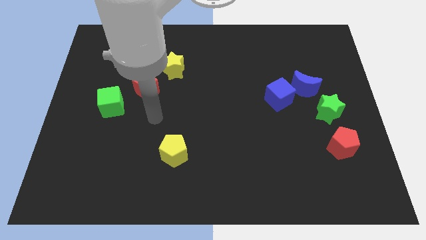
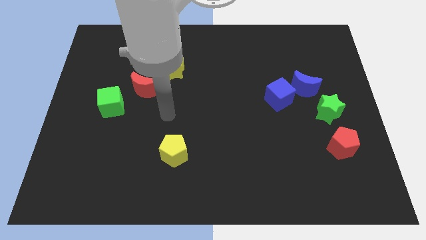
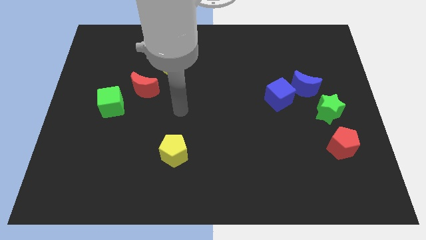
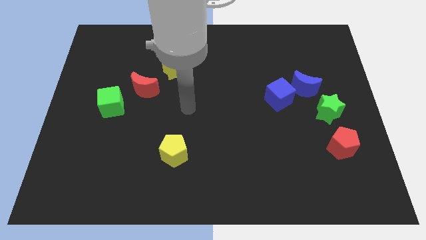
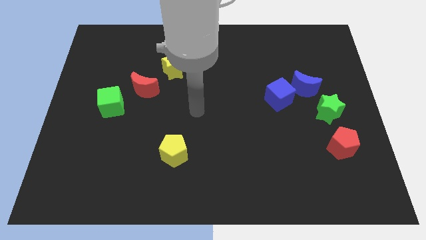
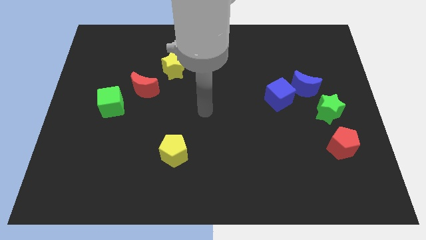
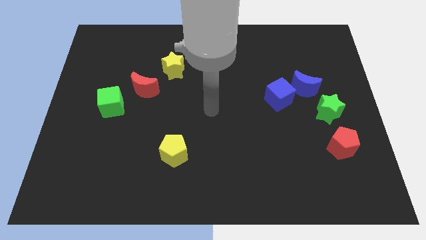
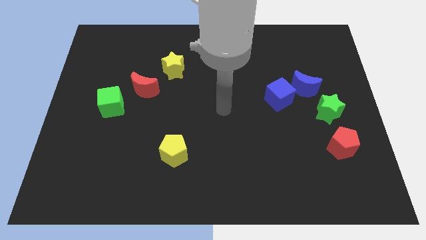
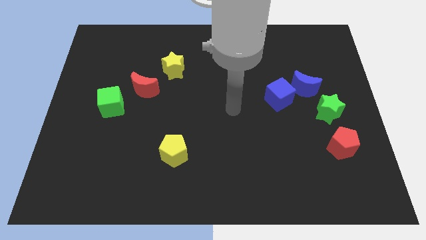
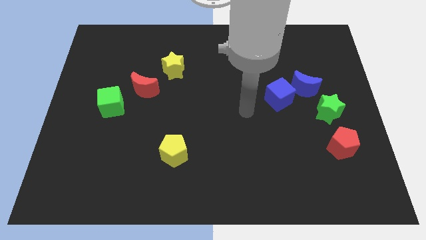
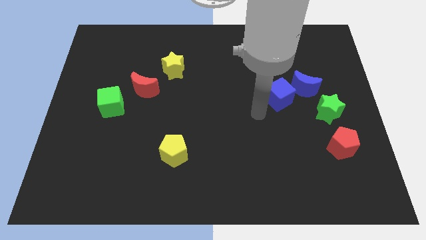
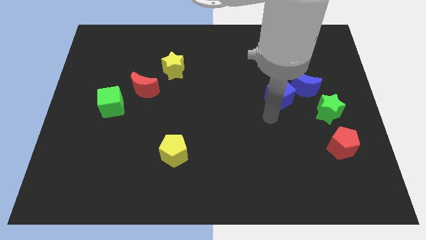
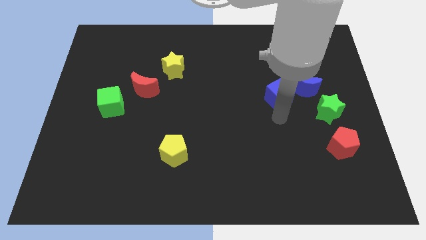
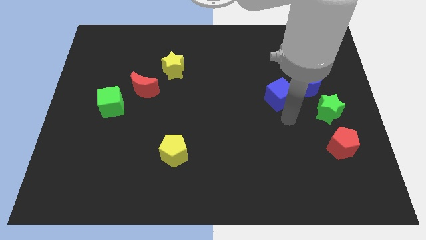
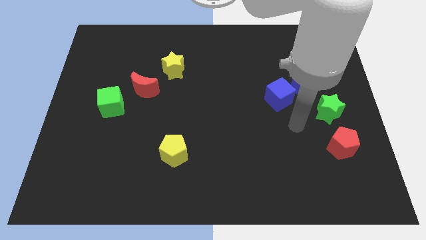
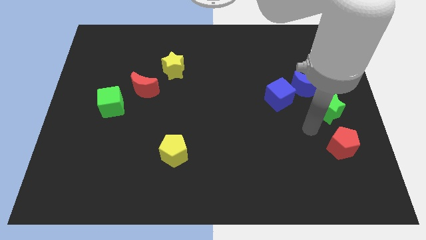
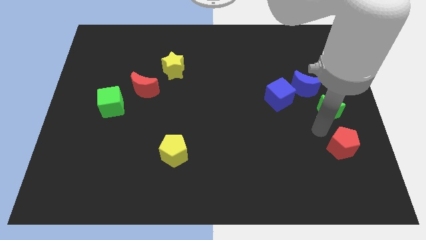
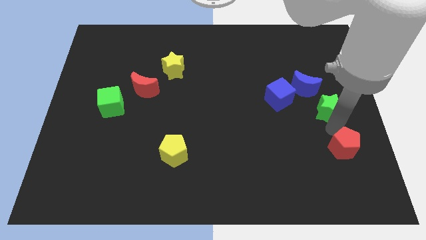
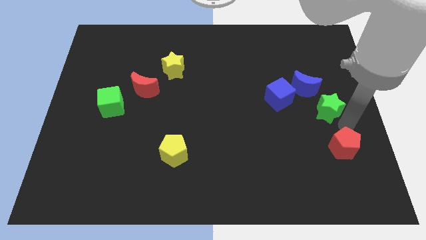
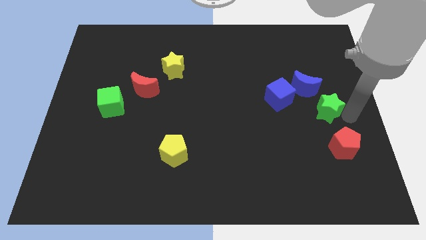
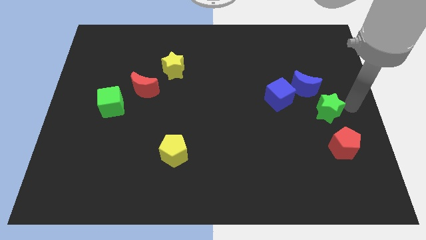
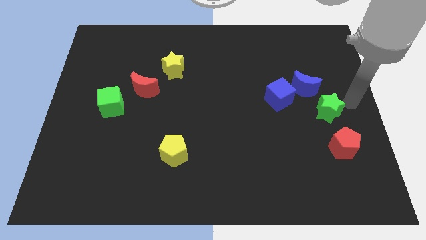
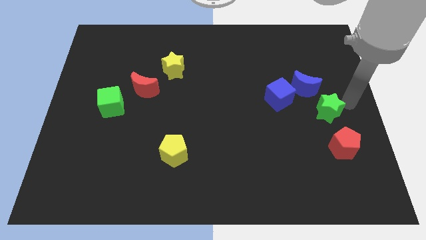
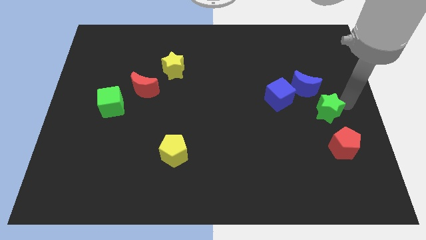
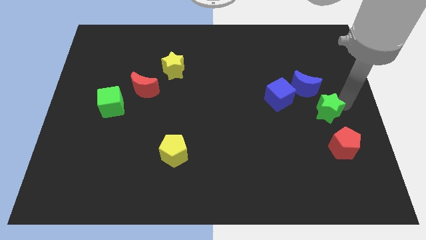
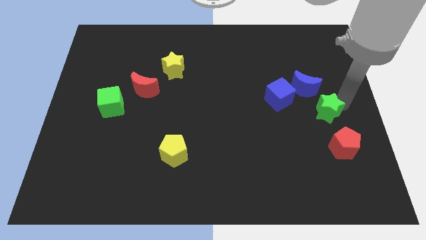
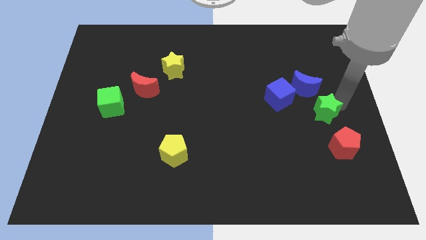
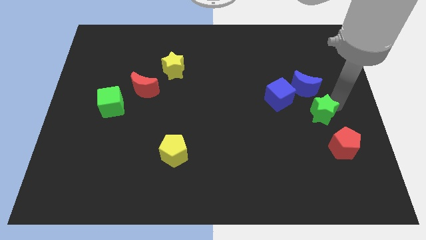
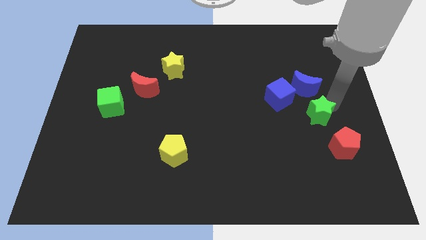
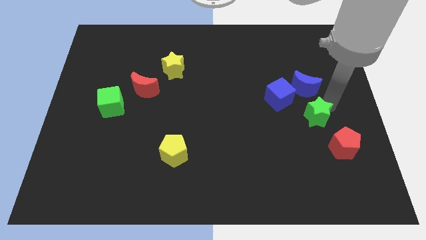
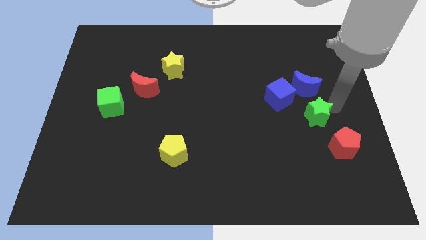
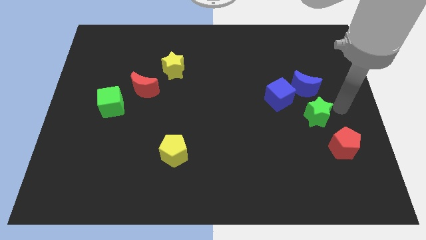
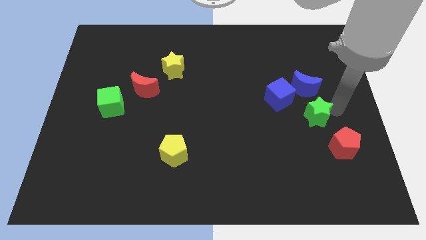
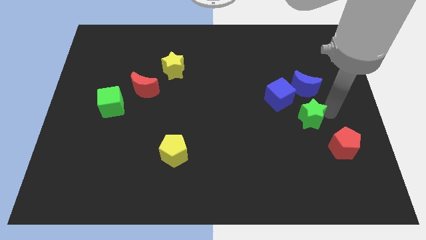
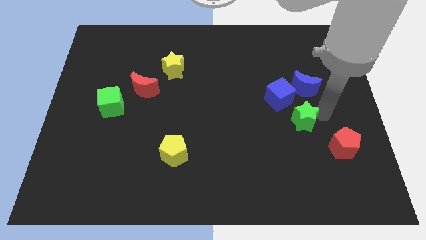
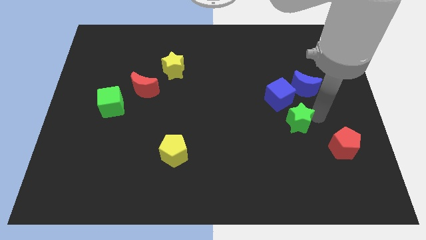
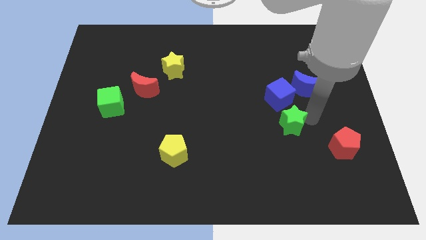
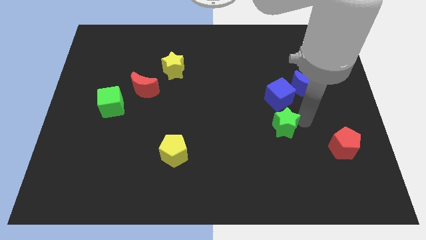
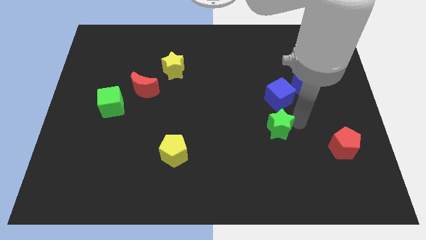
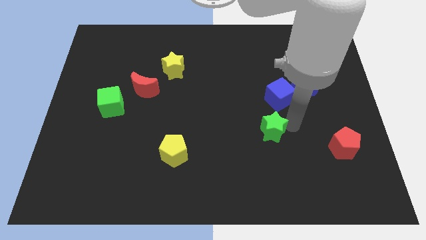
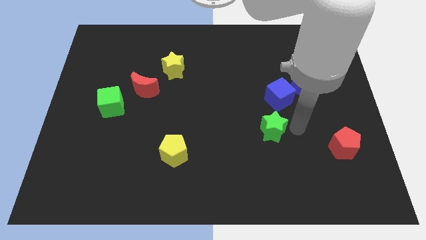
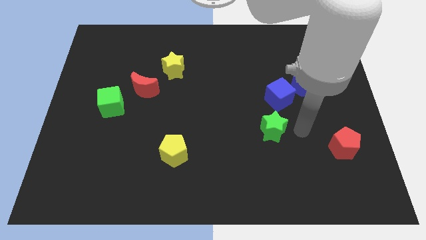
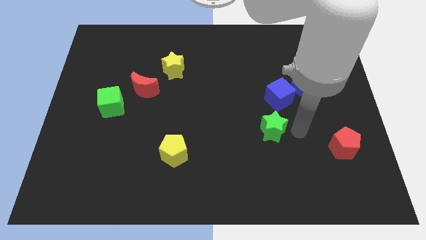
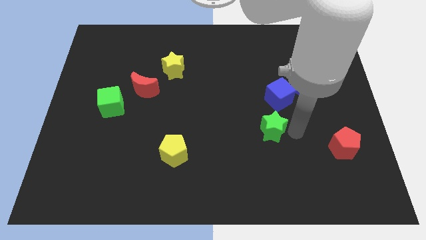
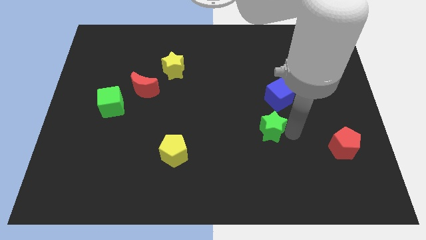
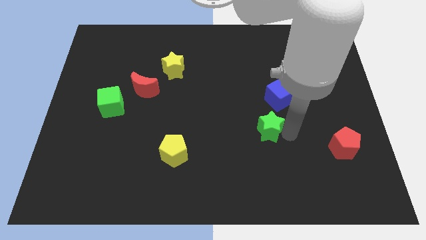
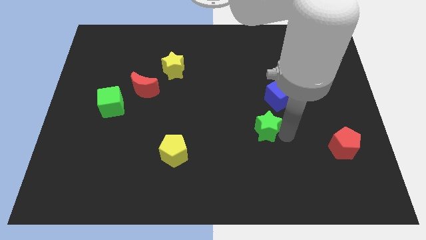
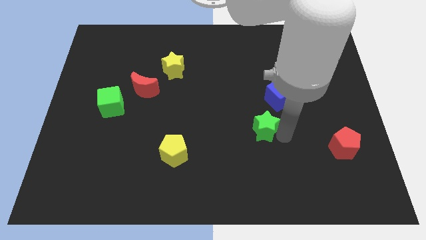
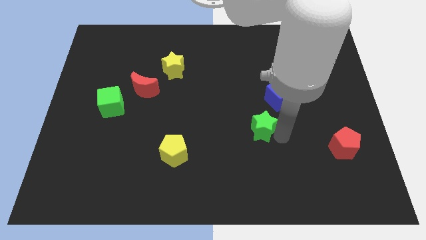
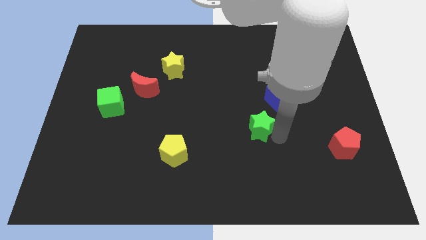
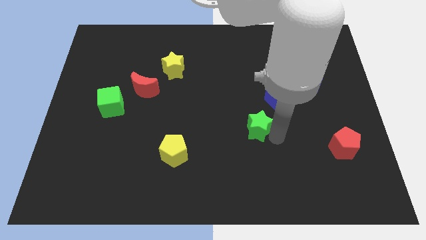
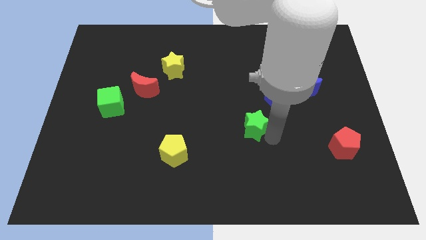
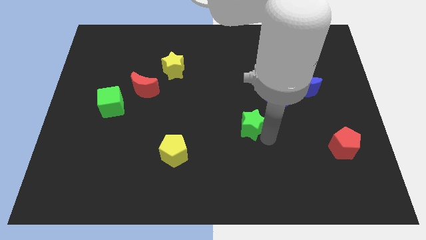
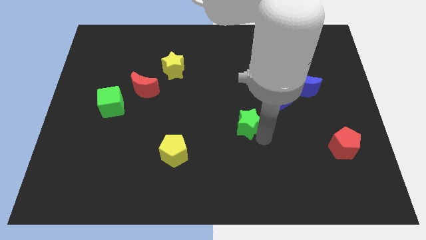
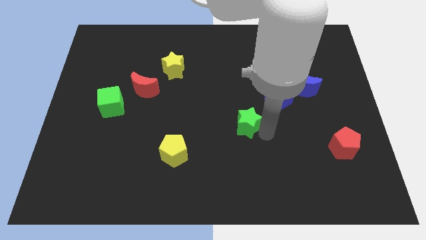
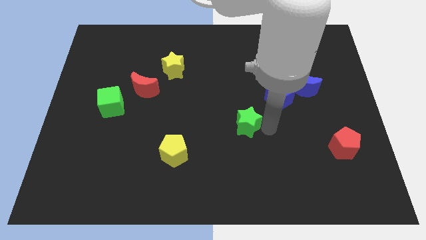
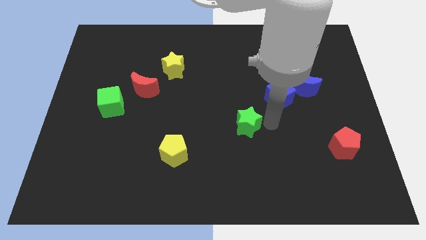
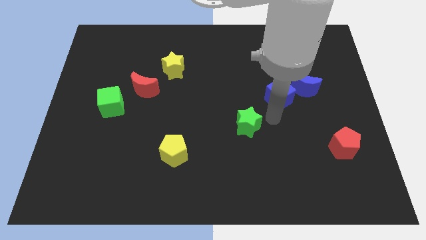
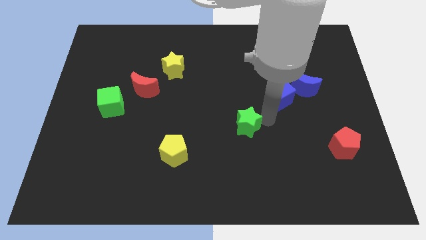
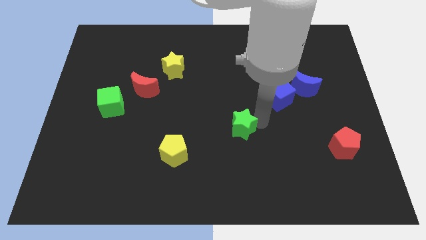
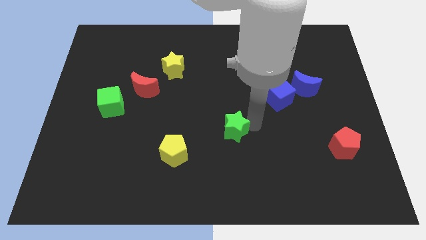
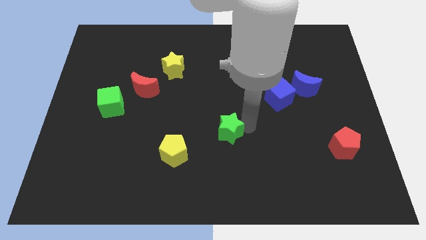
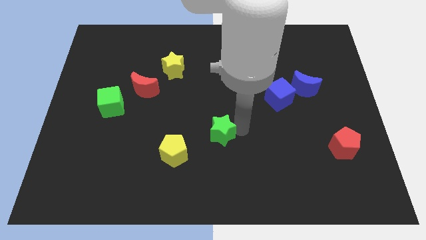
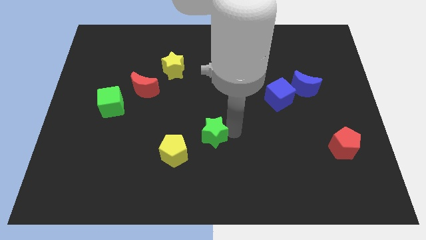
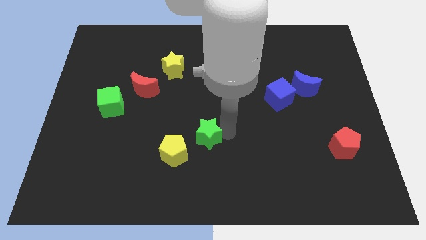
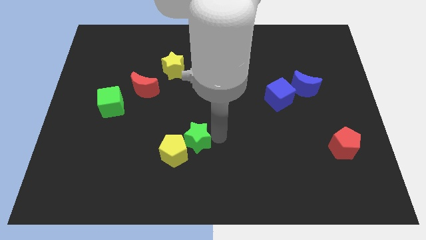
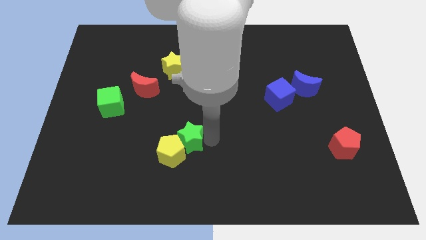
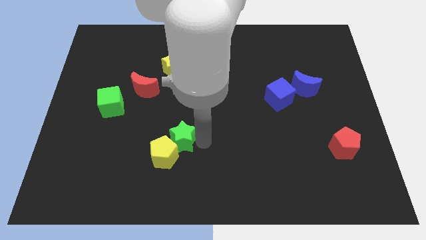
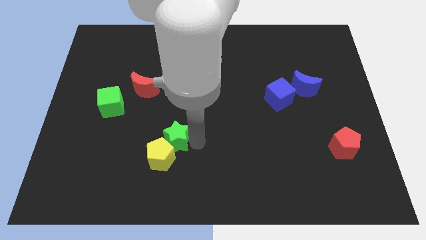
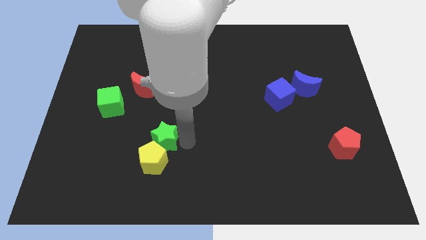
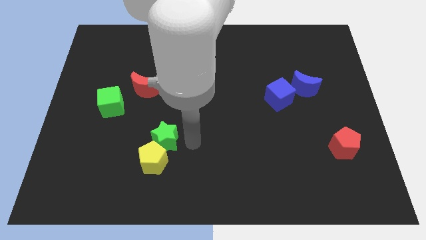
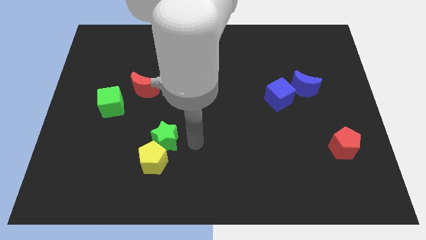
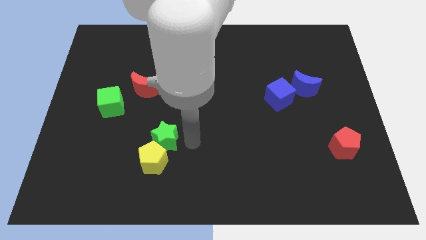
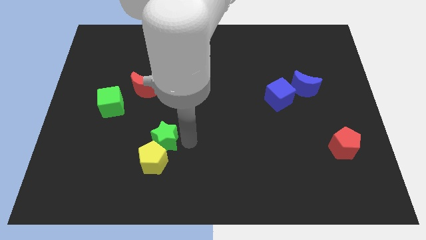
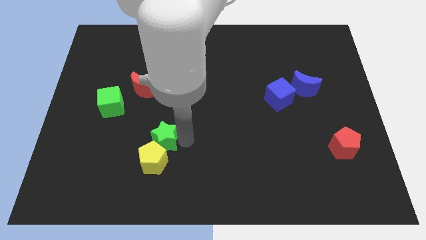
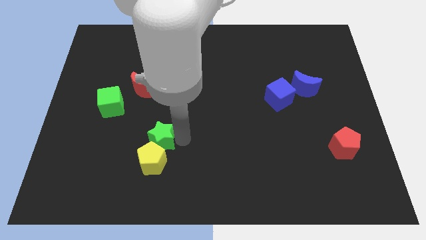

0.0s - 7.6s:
push the green star to the top left side of the yellow pentagon
